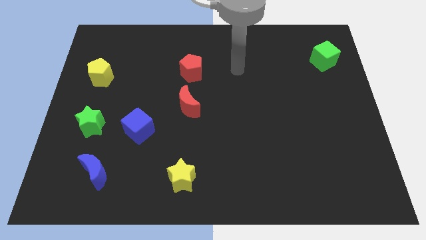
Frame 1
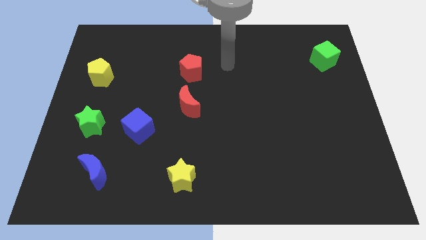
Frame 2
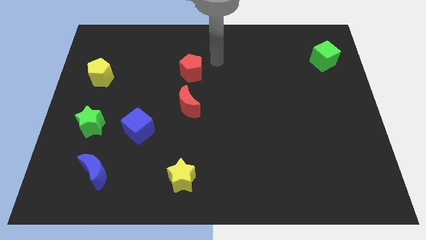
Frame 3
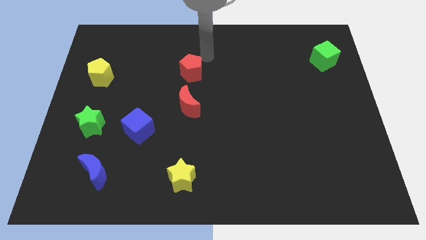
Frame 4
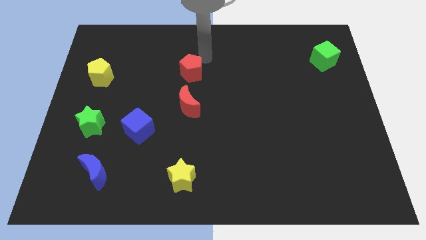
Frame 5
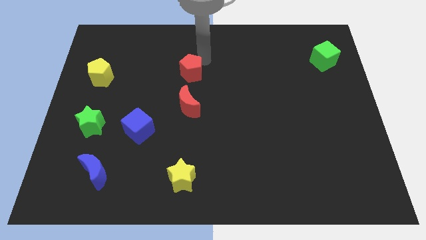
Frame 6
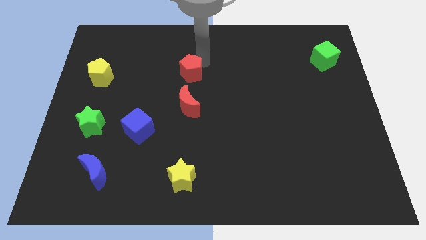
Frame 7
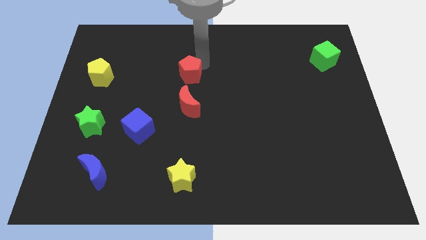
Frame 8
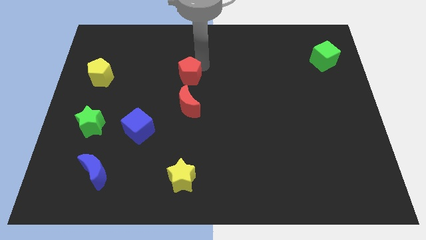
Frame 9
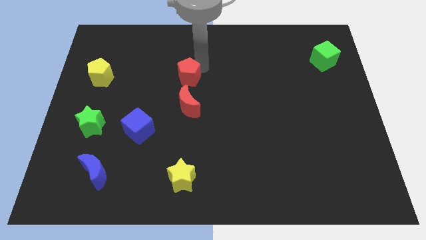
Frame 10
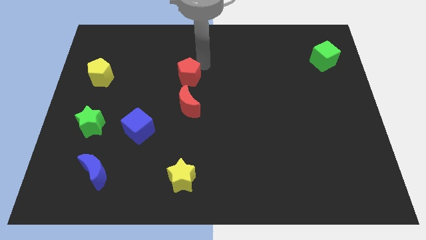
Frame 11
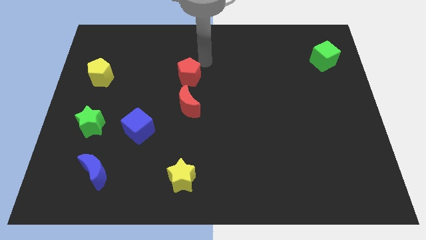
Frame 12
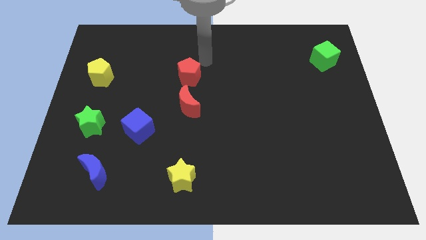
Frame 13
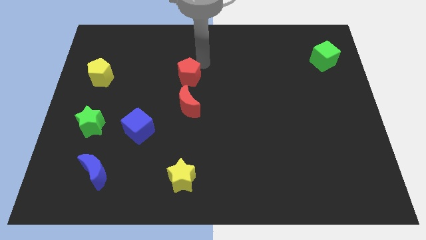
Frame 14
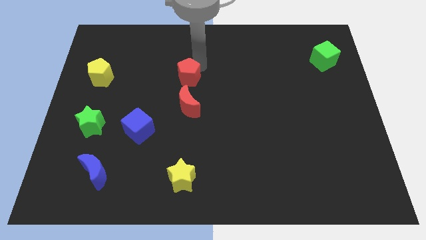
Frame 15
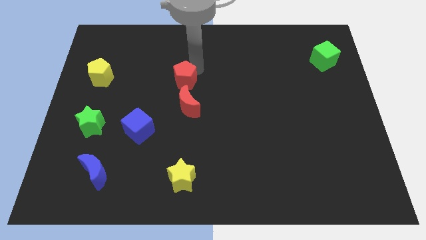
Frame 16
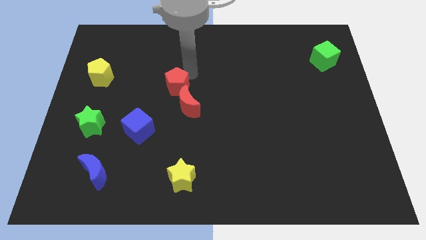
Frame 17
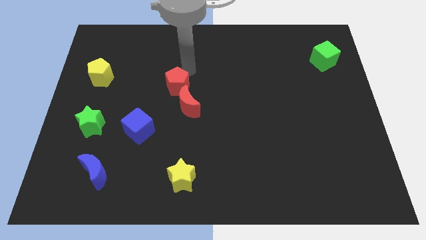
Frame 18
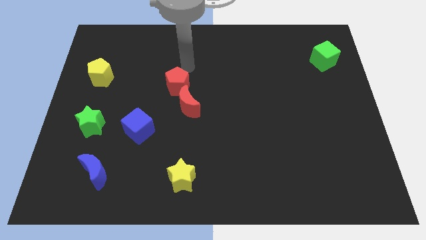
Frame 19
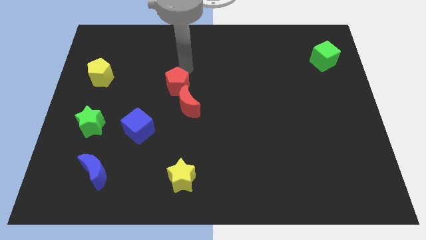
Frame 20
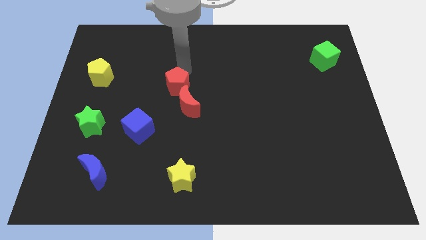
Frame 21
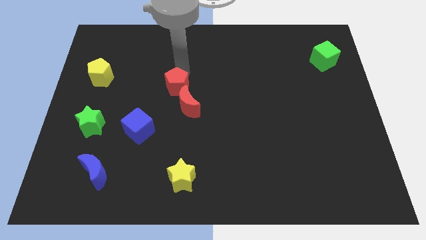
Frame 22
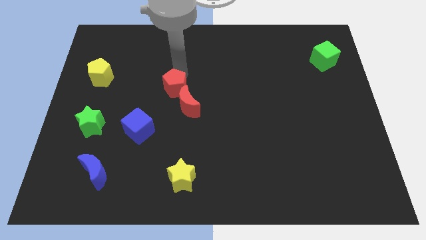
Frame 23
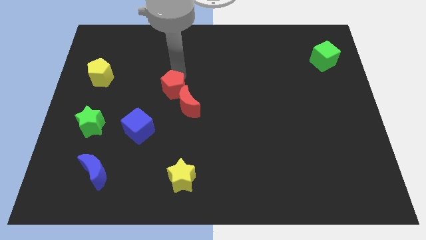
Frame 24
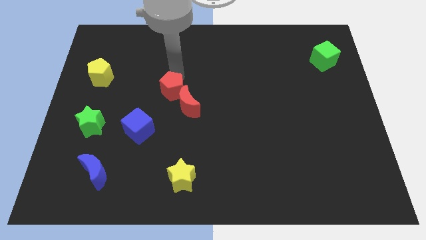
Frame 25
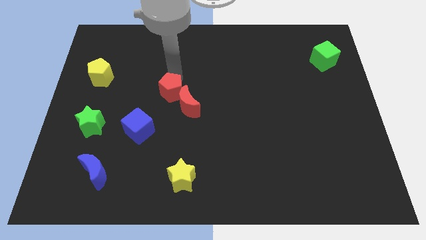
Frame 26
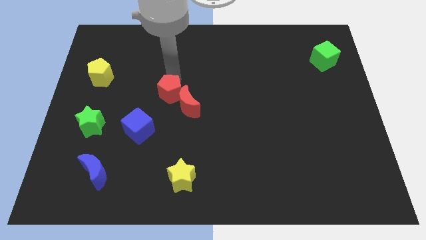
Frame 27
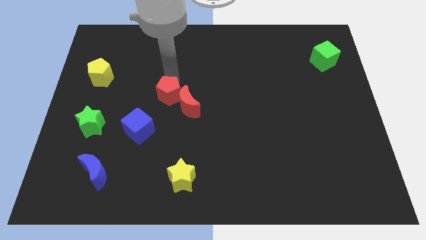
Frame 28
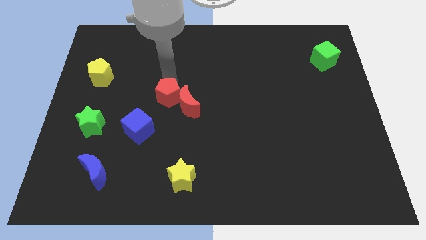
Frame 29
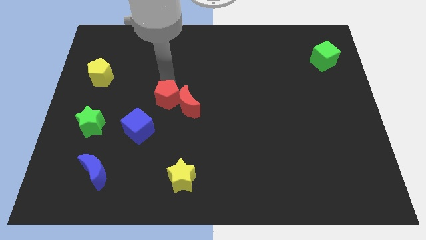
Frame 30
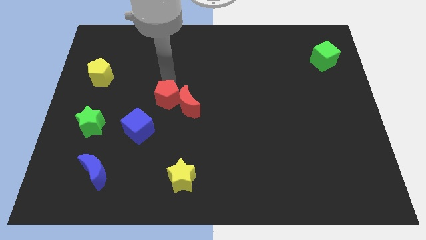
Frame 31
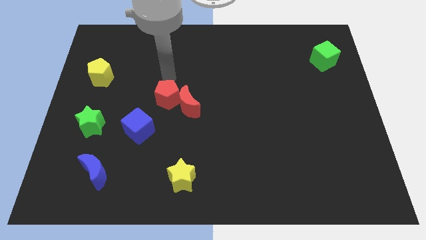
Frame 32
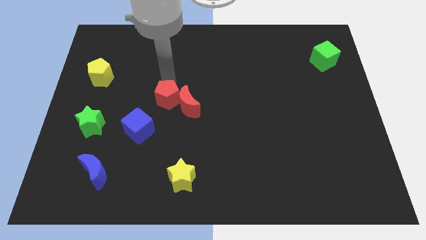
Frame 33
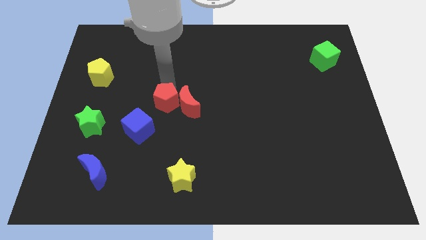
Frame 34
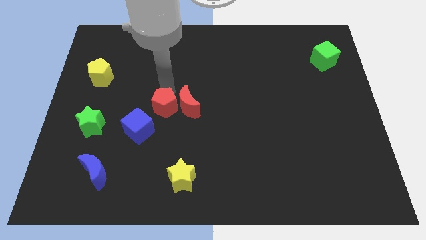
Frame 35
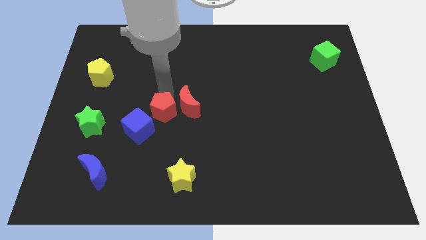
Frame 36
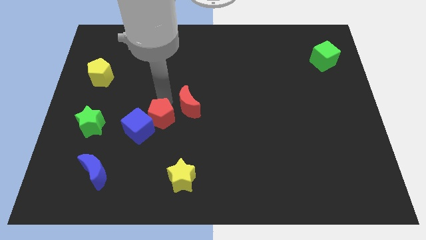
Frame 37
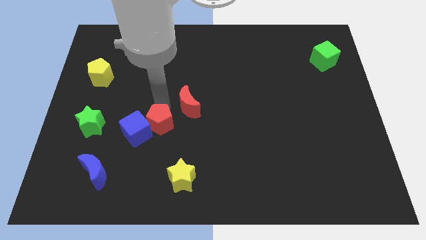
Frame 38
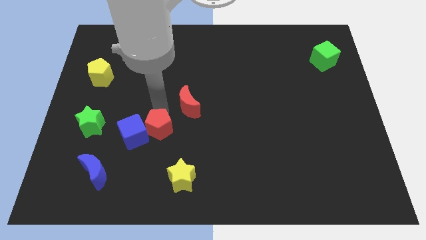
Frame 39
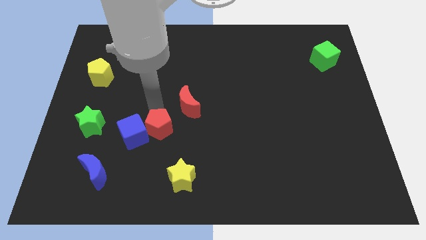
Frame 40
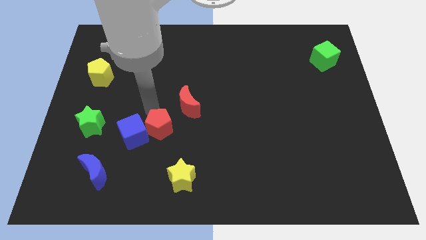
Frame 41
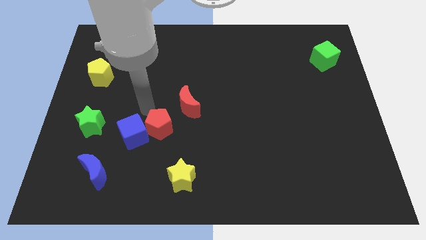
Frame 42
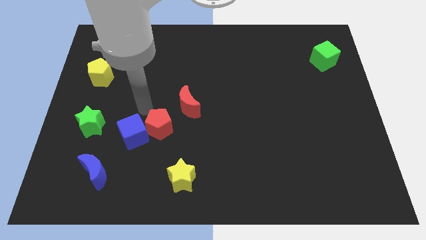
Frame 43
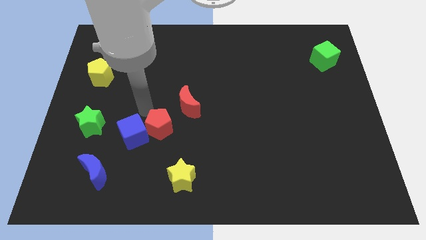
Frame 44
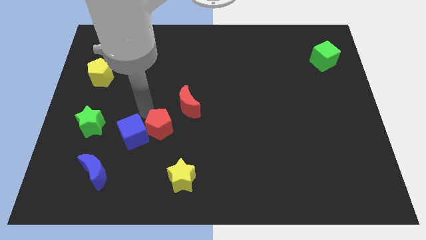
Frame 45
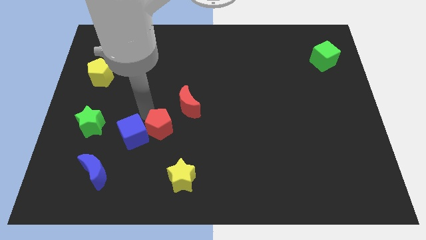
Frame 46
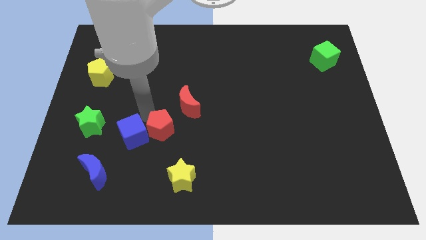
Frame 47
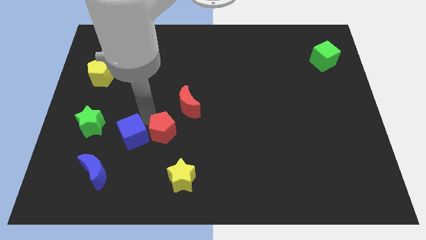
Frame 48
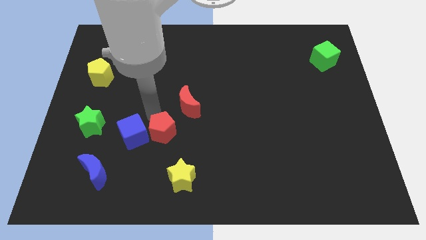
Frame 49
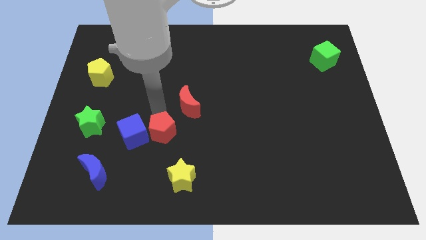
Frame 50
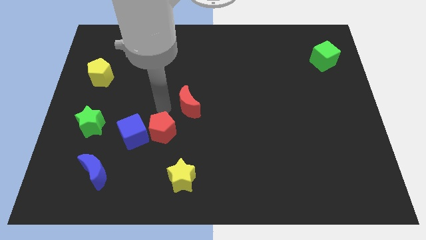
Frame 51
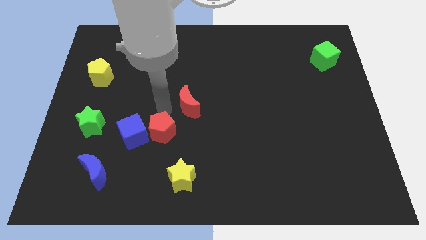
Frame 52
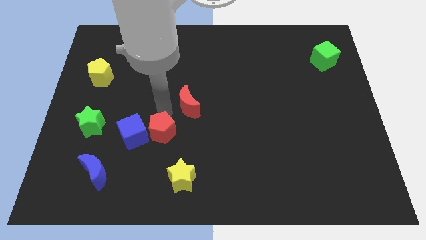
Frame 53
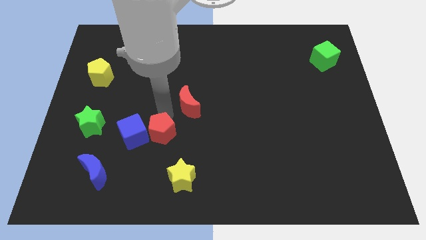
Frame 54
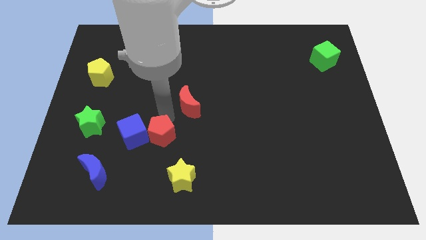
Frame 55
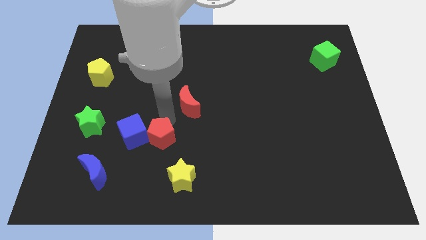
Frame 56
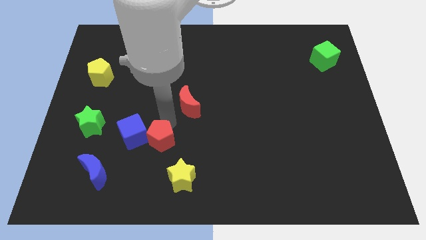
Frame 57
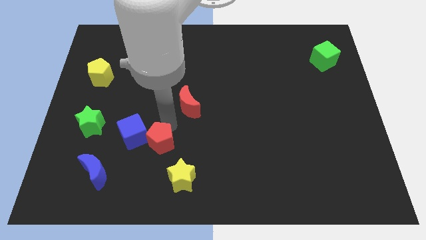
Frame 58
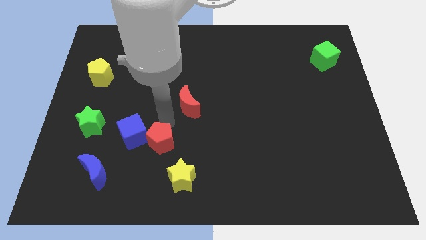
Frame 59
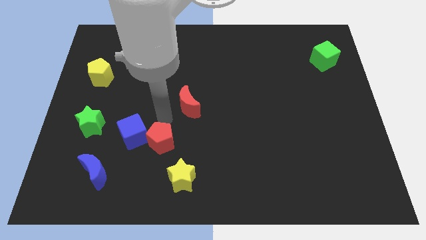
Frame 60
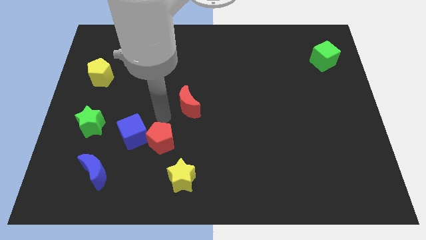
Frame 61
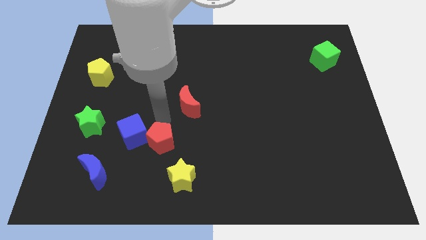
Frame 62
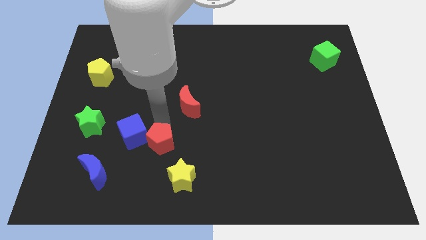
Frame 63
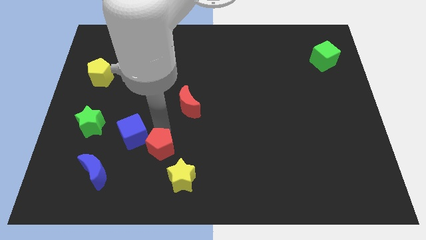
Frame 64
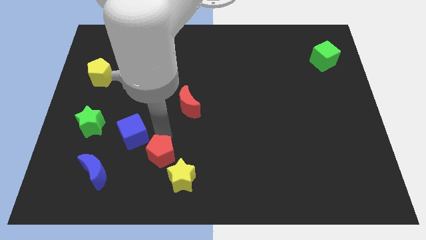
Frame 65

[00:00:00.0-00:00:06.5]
move the red pentagon to the right of the blue moon

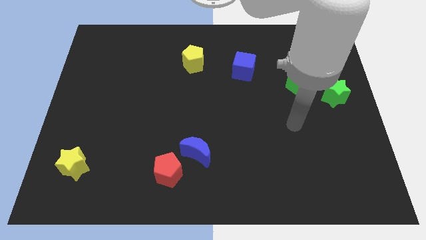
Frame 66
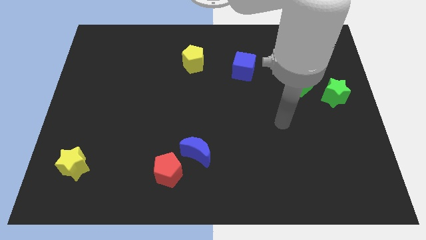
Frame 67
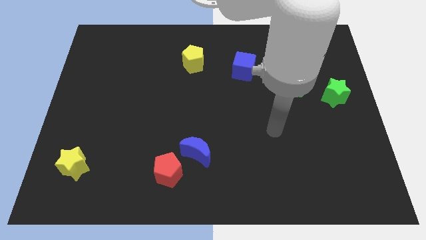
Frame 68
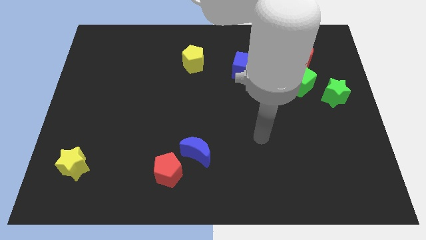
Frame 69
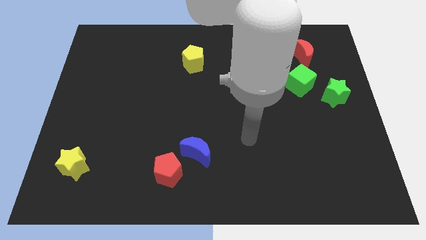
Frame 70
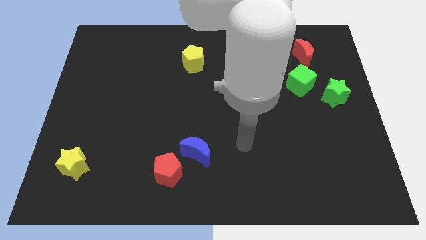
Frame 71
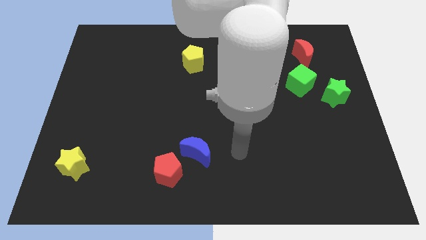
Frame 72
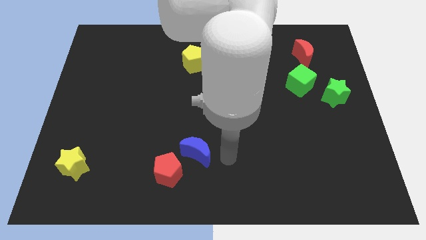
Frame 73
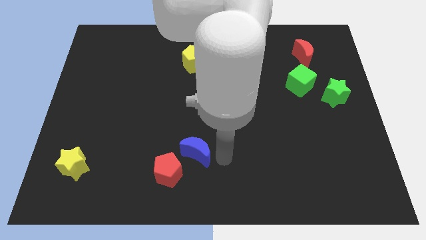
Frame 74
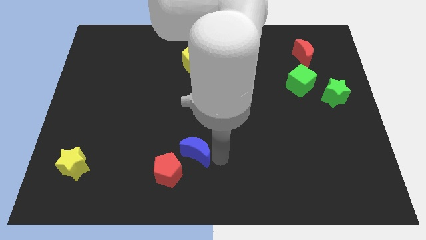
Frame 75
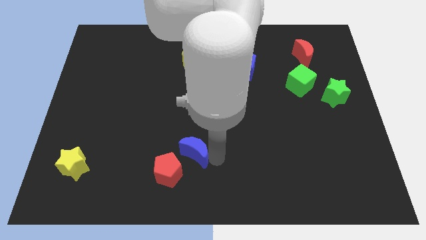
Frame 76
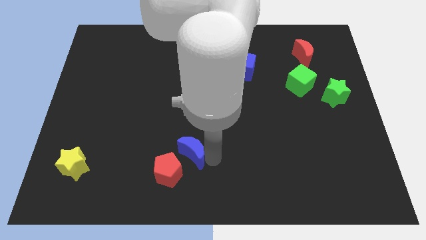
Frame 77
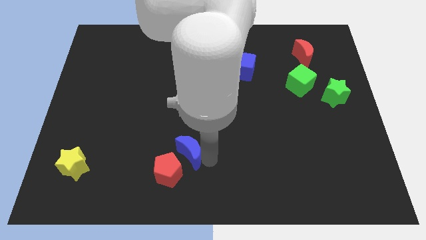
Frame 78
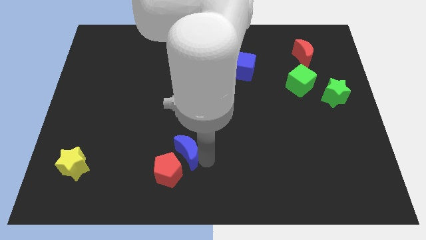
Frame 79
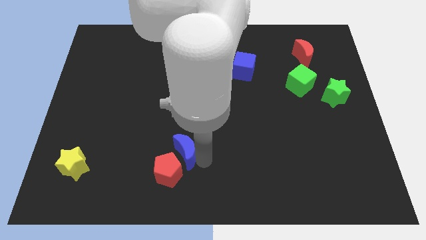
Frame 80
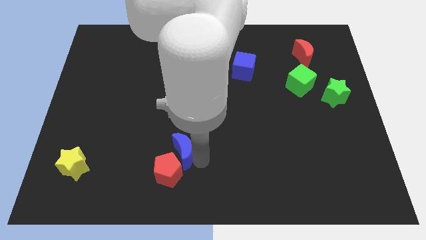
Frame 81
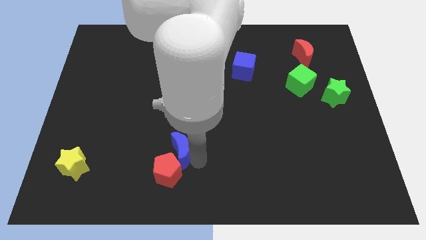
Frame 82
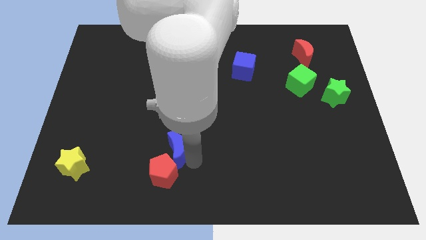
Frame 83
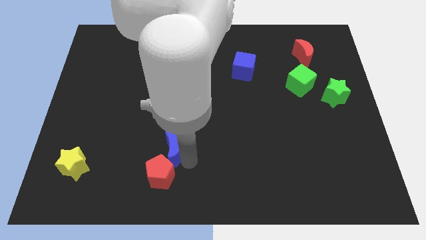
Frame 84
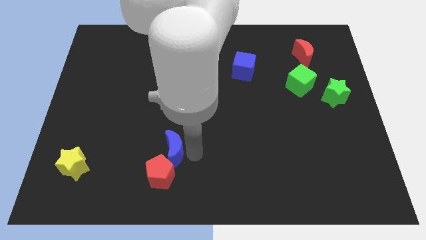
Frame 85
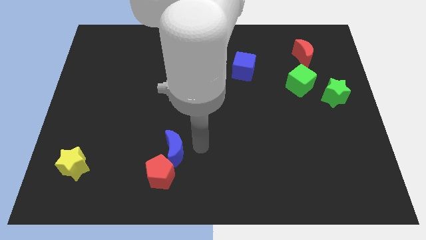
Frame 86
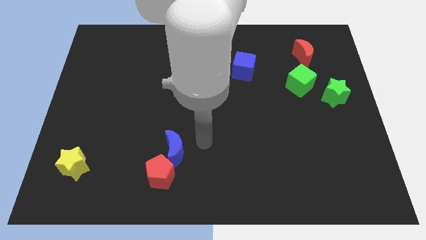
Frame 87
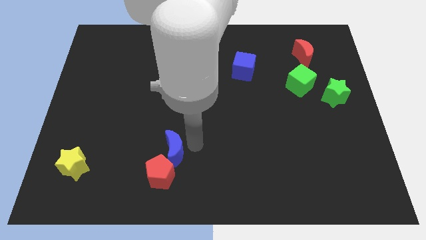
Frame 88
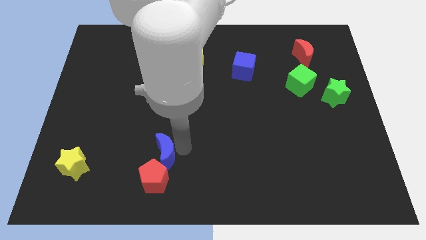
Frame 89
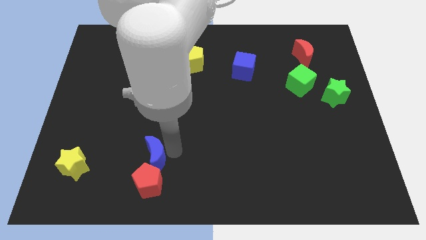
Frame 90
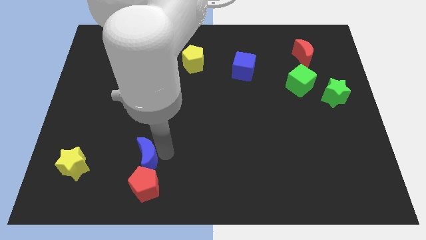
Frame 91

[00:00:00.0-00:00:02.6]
move the blue moon right of the yellow star
